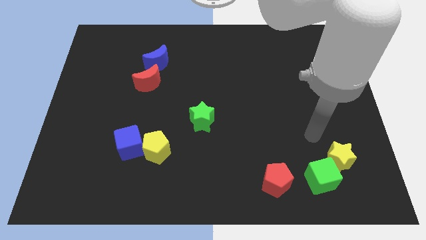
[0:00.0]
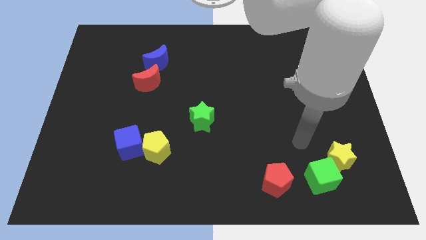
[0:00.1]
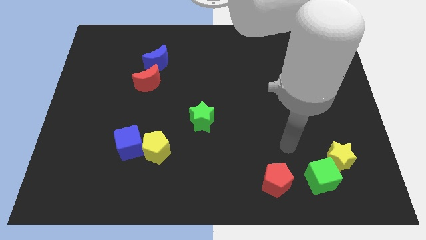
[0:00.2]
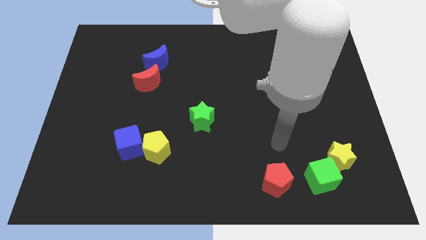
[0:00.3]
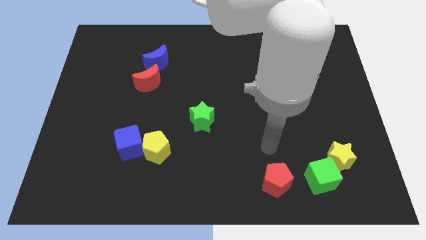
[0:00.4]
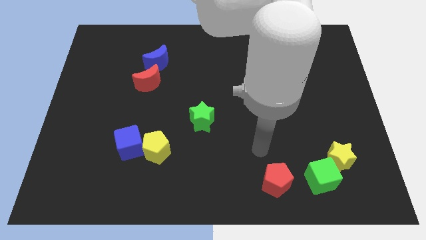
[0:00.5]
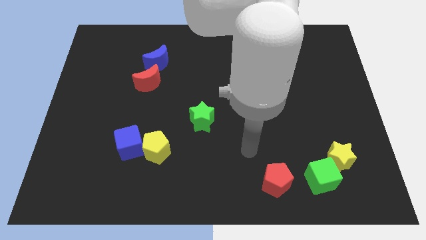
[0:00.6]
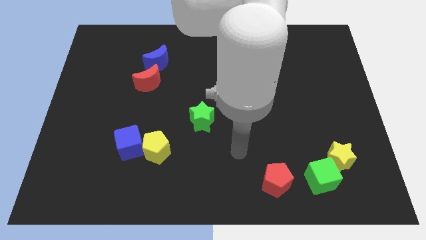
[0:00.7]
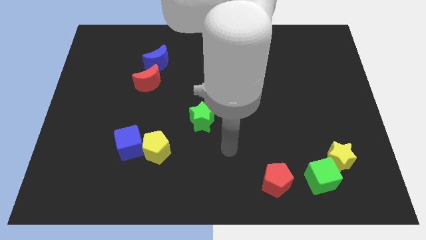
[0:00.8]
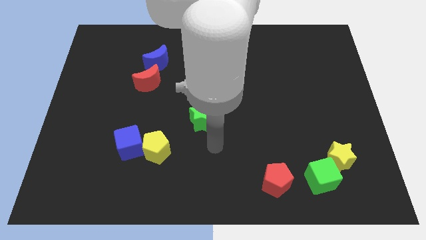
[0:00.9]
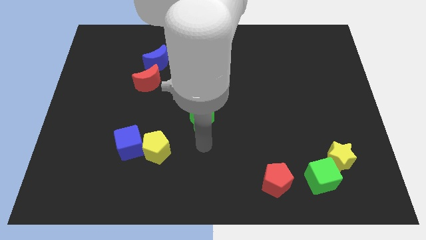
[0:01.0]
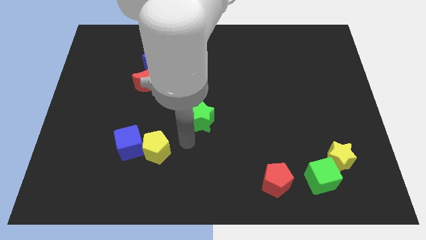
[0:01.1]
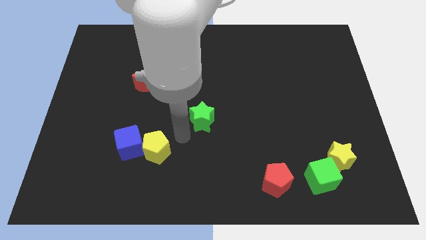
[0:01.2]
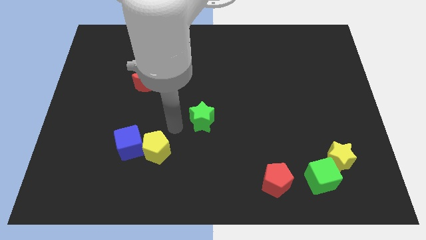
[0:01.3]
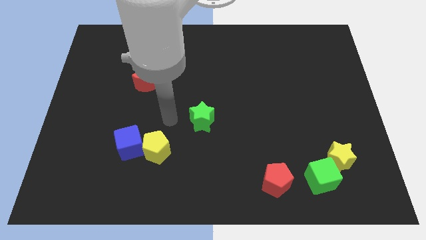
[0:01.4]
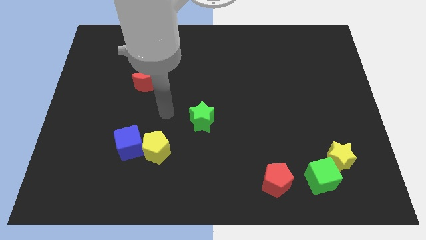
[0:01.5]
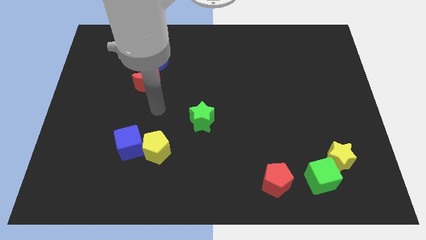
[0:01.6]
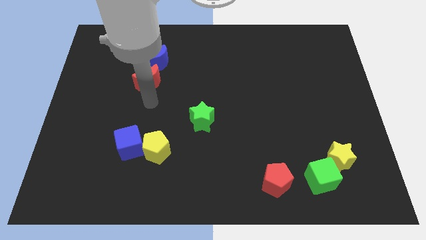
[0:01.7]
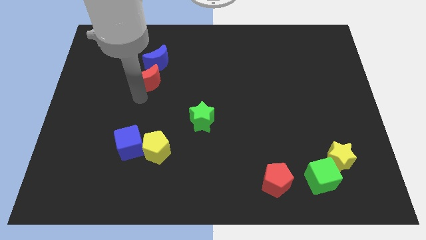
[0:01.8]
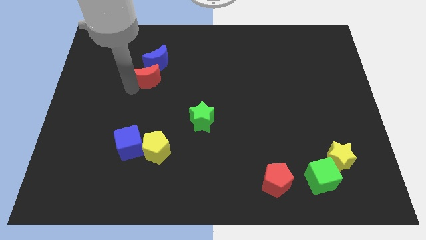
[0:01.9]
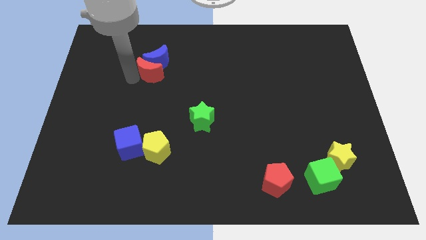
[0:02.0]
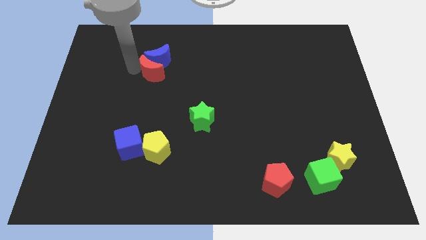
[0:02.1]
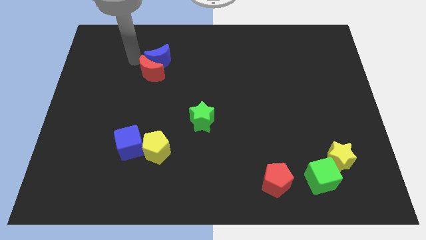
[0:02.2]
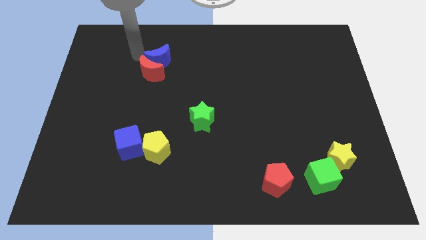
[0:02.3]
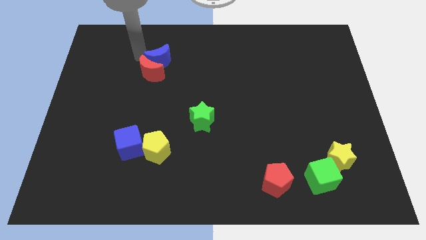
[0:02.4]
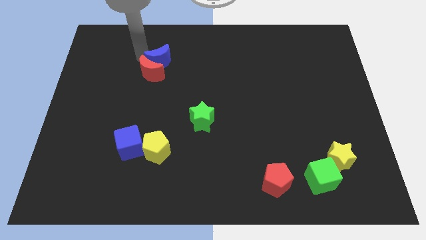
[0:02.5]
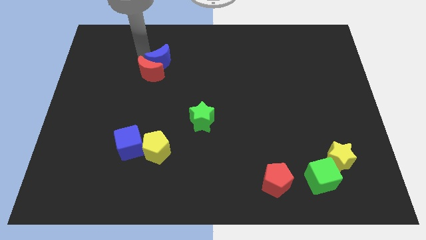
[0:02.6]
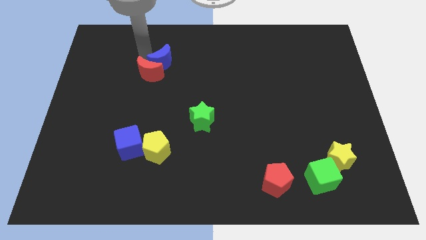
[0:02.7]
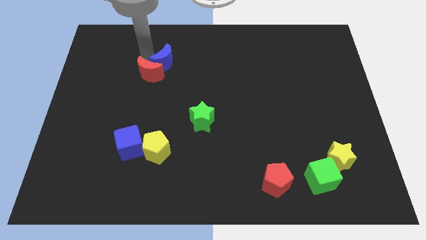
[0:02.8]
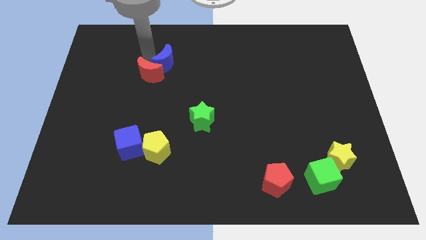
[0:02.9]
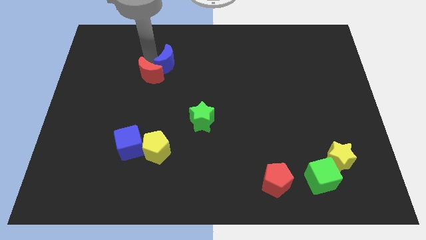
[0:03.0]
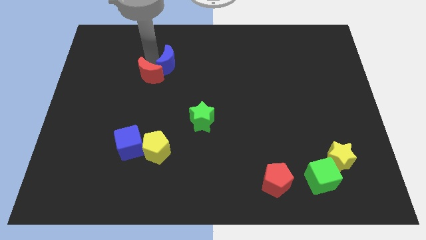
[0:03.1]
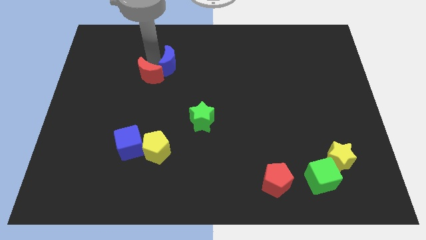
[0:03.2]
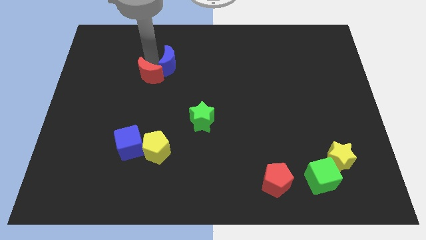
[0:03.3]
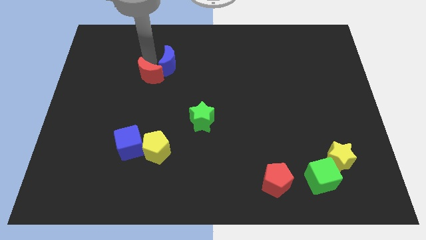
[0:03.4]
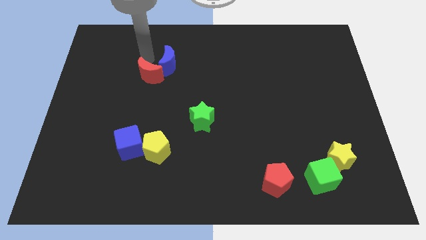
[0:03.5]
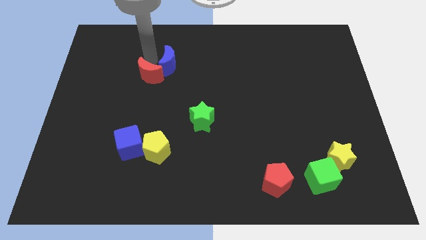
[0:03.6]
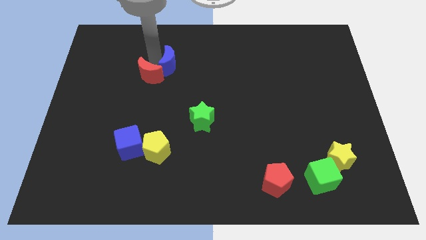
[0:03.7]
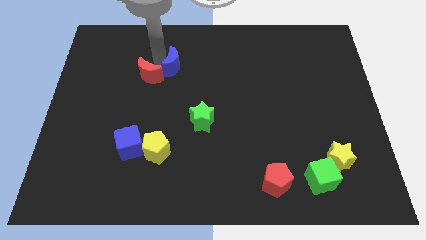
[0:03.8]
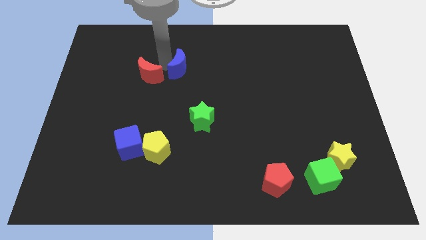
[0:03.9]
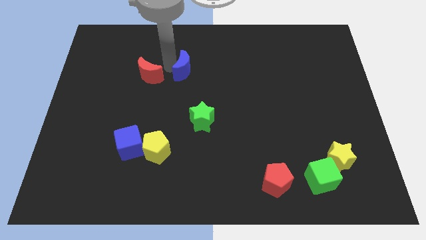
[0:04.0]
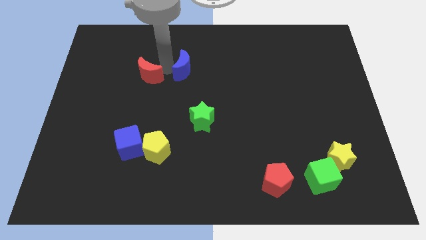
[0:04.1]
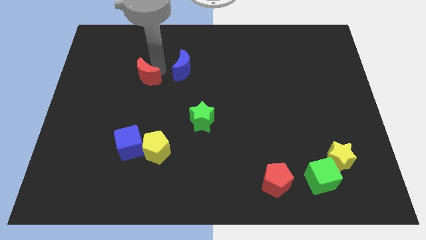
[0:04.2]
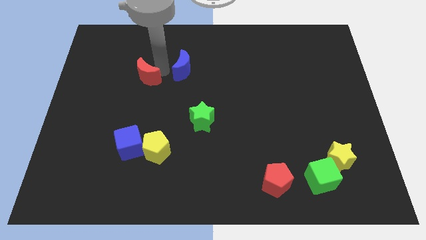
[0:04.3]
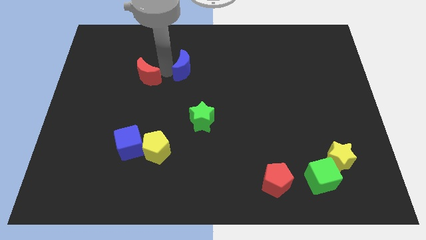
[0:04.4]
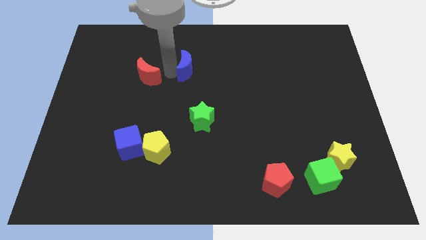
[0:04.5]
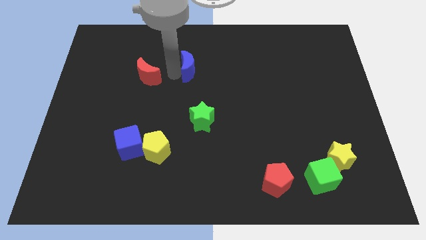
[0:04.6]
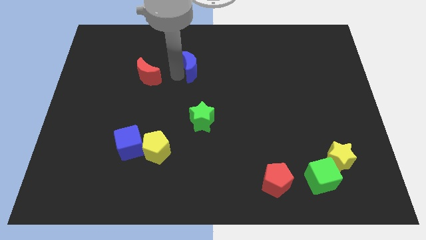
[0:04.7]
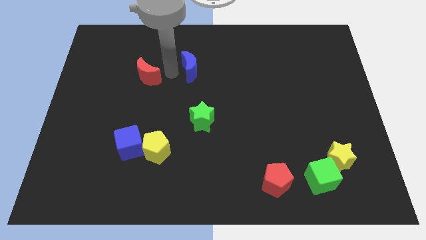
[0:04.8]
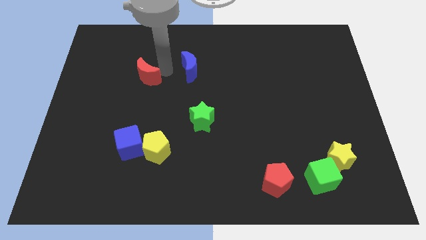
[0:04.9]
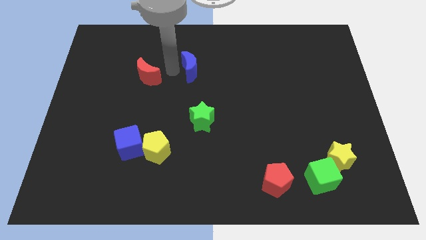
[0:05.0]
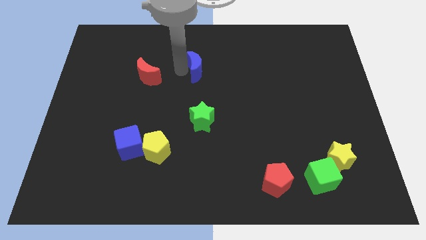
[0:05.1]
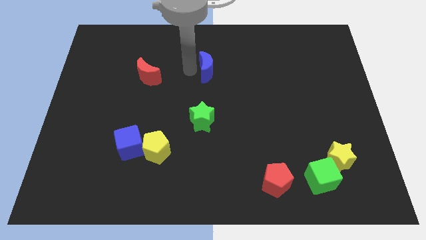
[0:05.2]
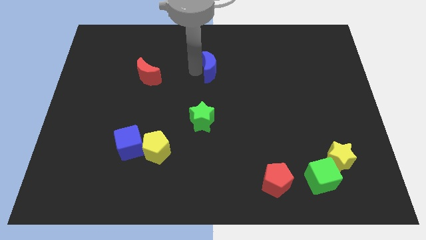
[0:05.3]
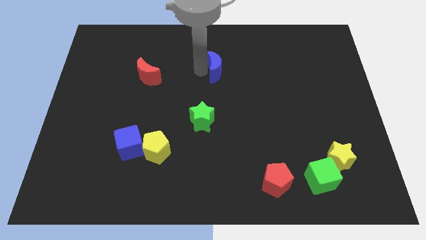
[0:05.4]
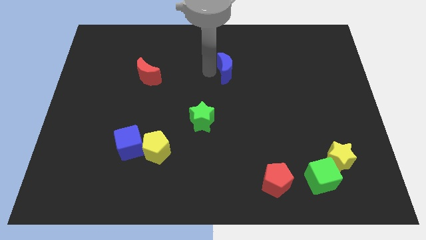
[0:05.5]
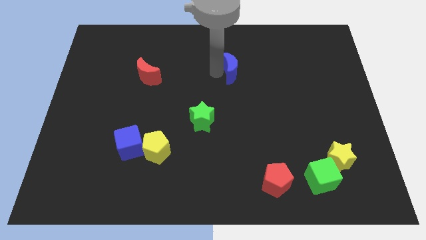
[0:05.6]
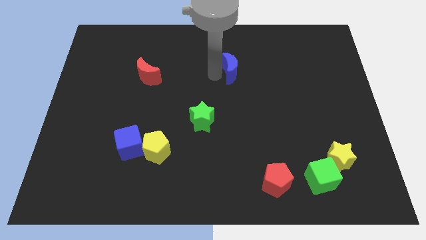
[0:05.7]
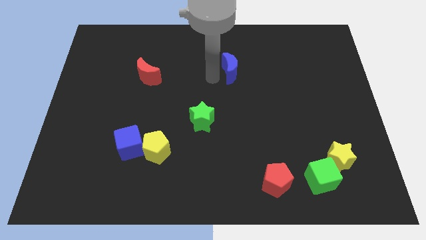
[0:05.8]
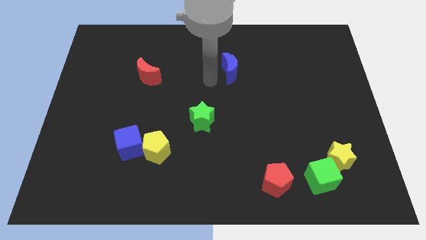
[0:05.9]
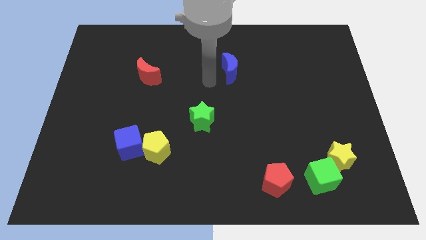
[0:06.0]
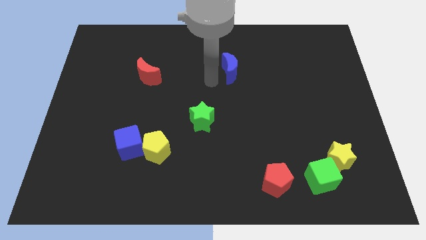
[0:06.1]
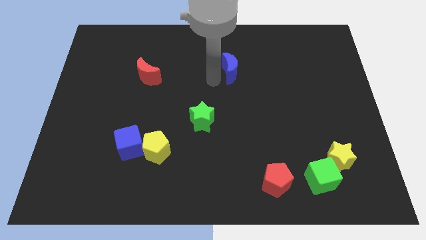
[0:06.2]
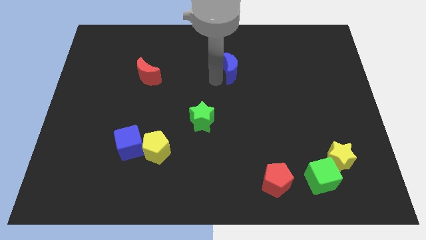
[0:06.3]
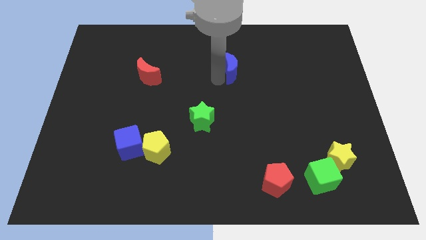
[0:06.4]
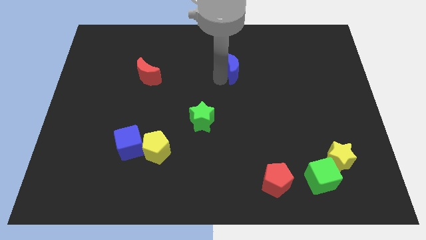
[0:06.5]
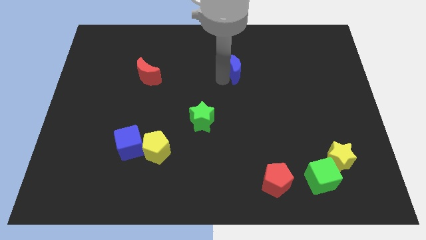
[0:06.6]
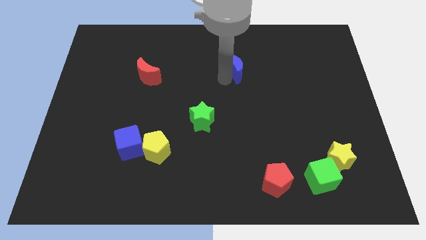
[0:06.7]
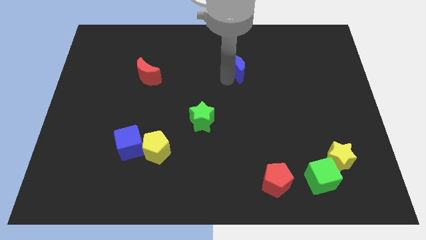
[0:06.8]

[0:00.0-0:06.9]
push the blue moon to the right

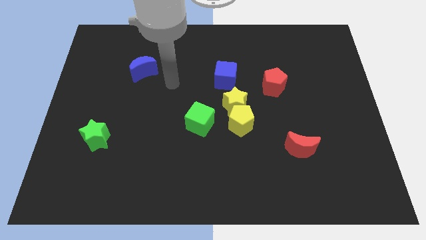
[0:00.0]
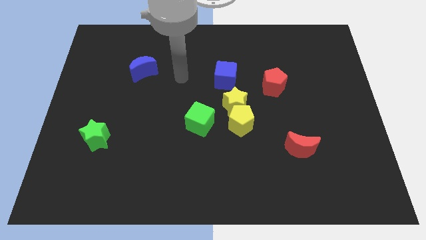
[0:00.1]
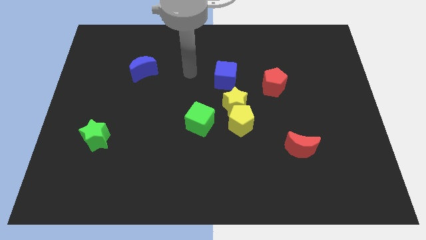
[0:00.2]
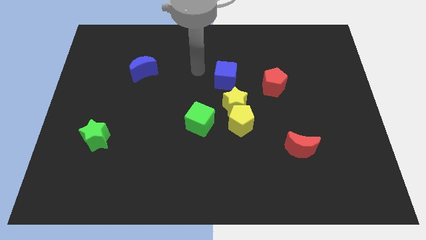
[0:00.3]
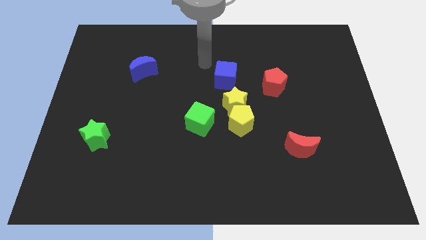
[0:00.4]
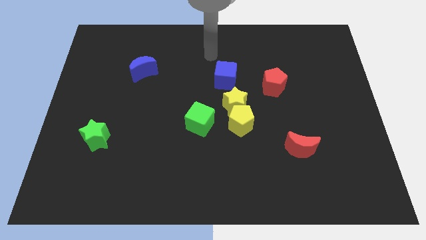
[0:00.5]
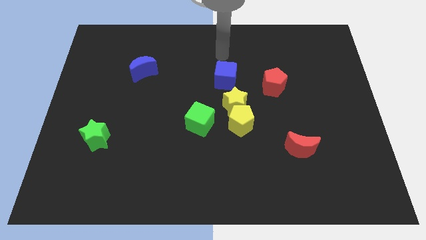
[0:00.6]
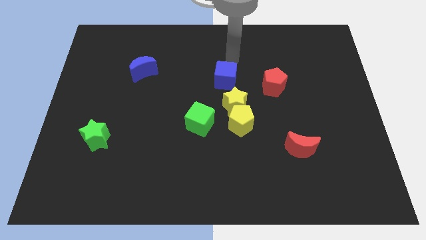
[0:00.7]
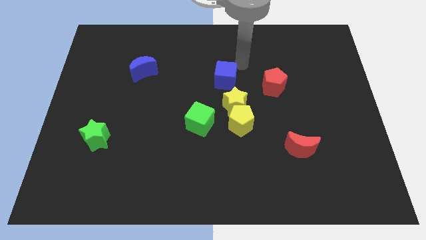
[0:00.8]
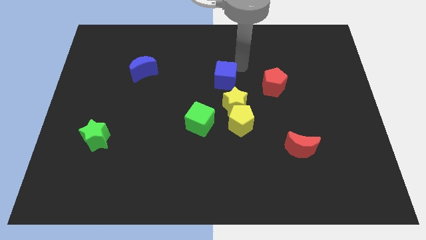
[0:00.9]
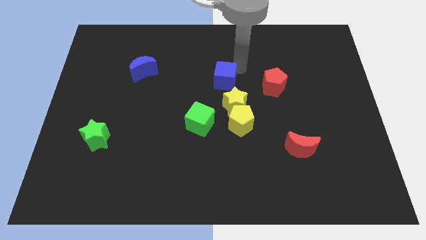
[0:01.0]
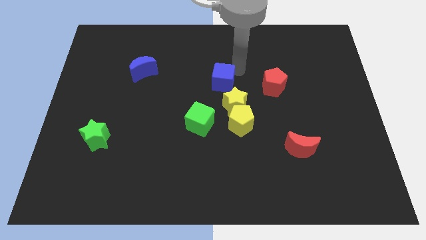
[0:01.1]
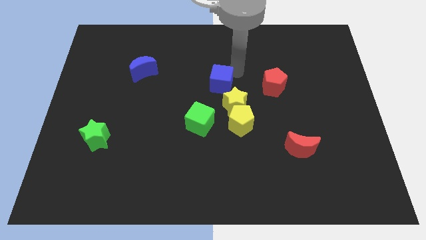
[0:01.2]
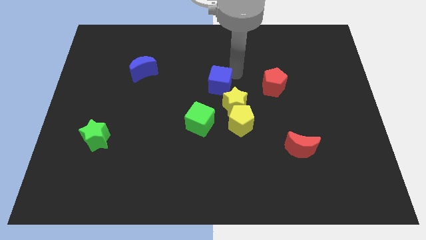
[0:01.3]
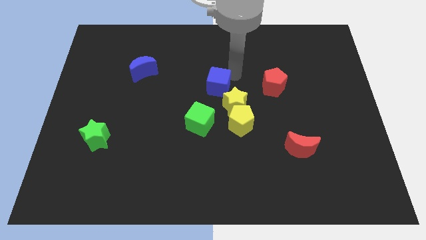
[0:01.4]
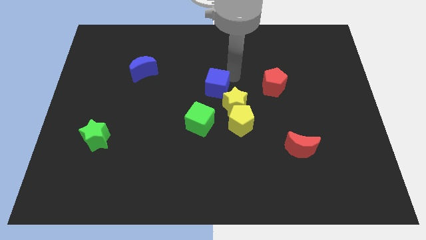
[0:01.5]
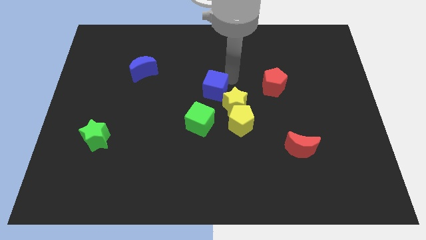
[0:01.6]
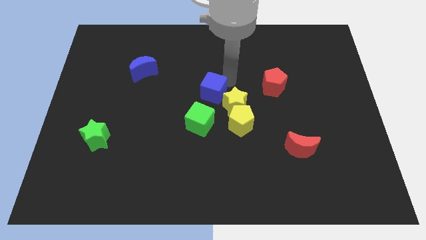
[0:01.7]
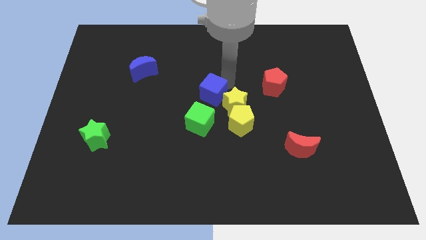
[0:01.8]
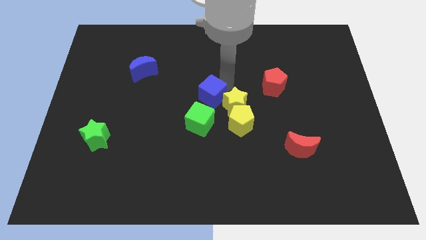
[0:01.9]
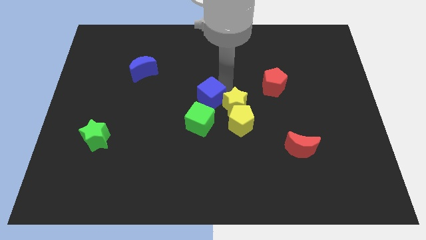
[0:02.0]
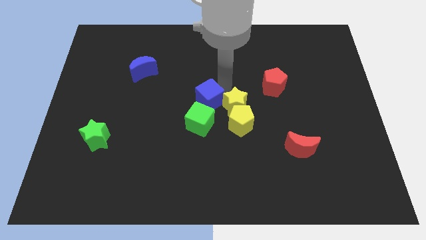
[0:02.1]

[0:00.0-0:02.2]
slightly push the blue cube down and to the left diagonally
